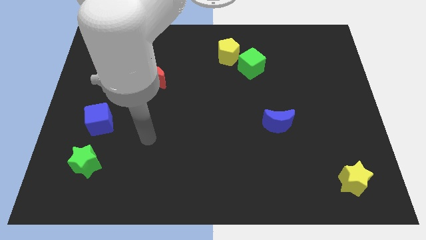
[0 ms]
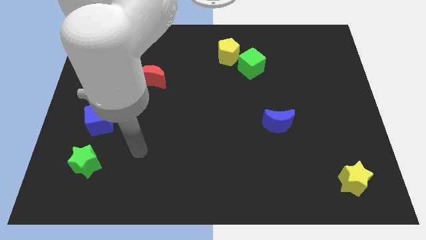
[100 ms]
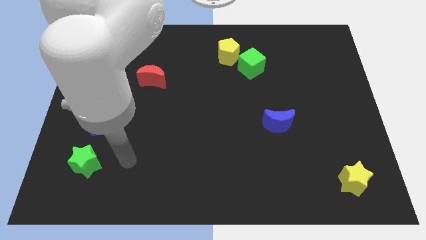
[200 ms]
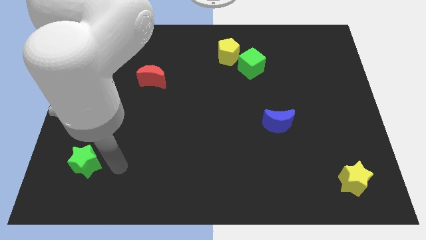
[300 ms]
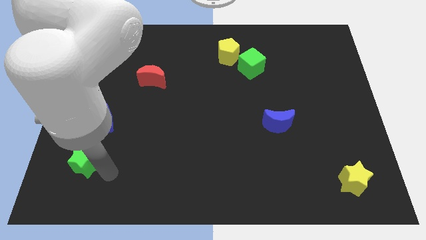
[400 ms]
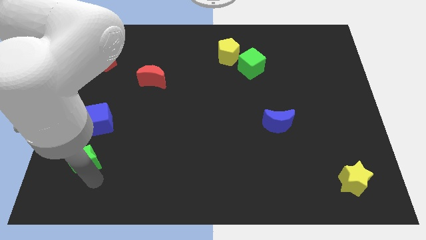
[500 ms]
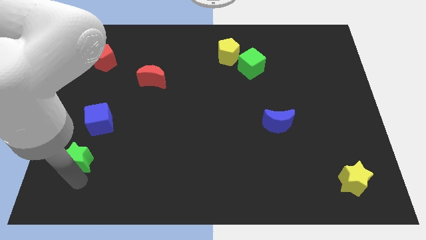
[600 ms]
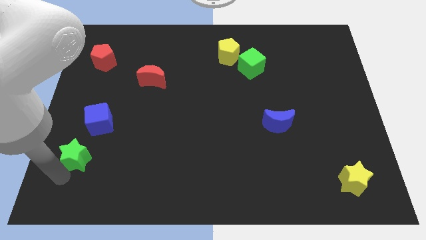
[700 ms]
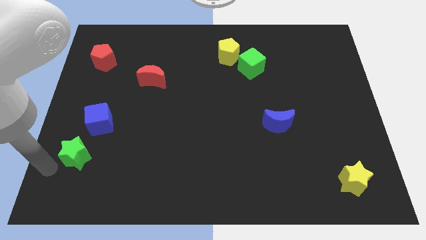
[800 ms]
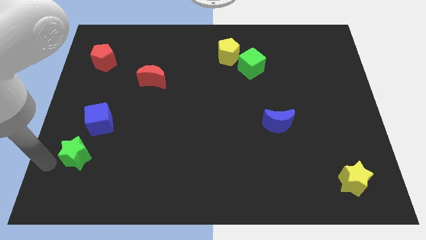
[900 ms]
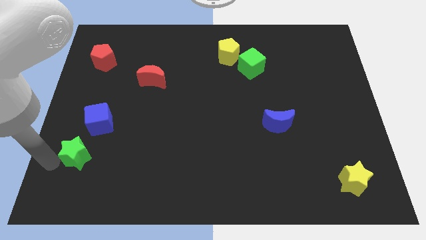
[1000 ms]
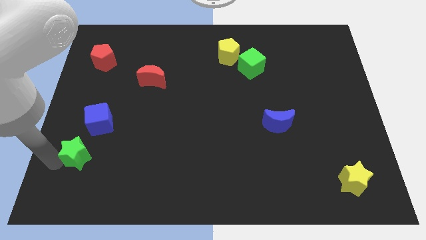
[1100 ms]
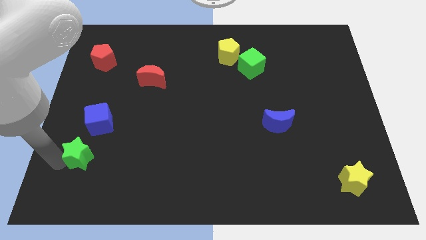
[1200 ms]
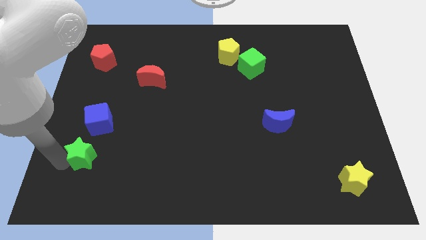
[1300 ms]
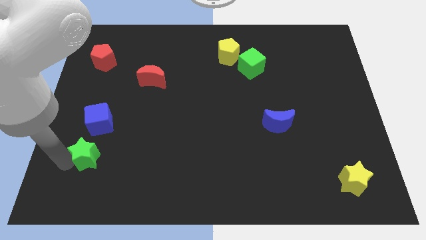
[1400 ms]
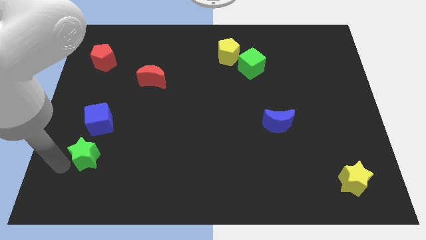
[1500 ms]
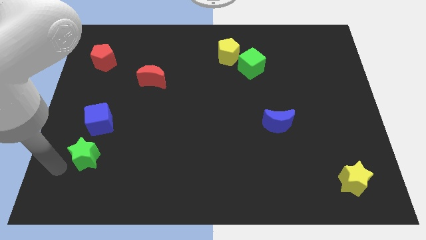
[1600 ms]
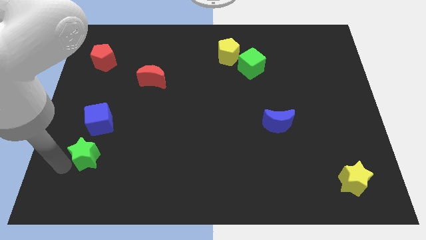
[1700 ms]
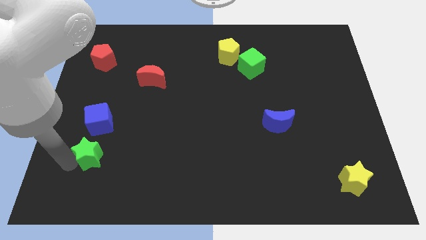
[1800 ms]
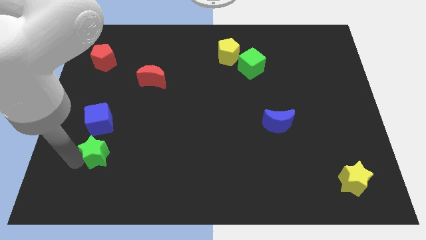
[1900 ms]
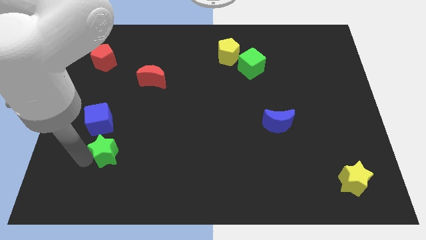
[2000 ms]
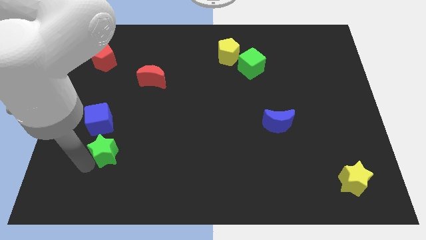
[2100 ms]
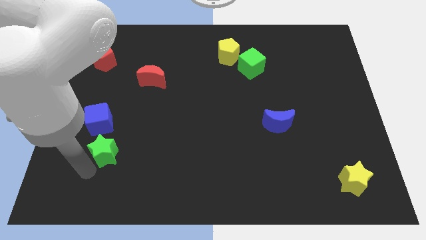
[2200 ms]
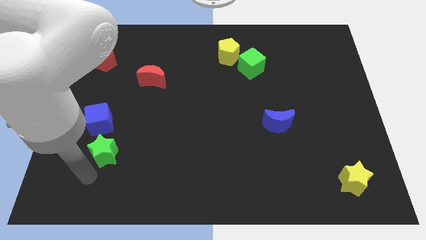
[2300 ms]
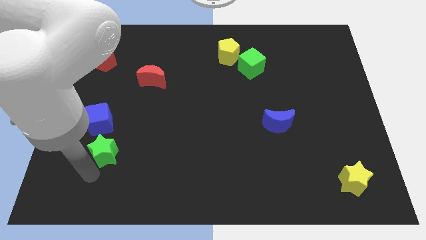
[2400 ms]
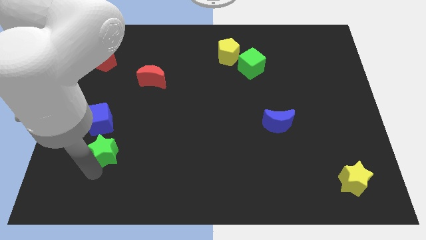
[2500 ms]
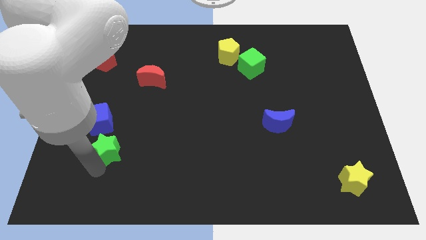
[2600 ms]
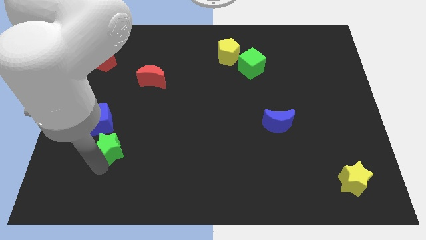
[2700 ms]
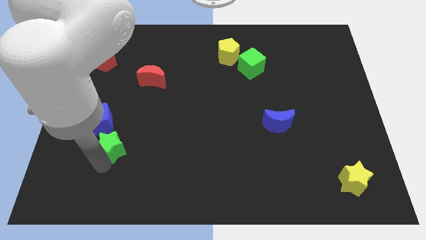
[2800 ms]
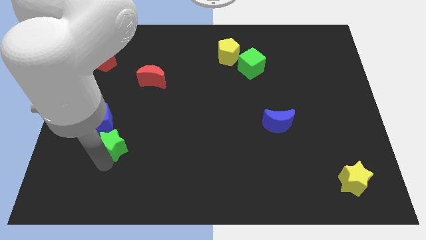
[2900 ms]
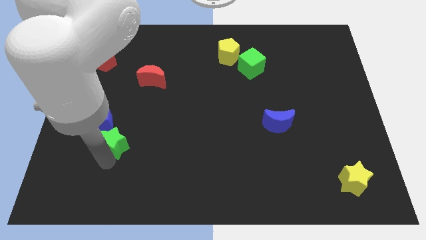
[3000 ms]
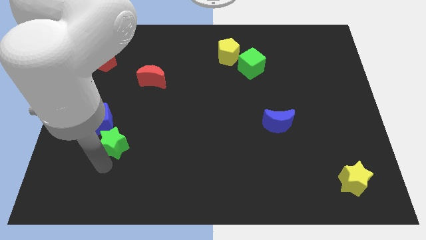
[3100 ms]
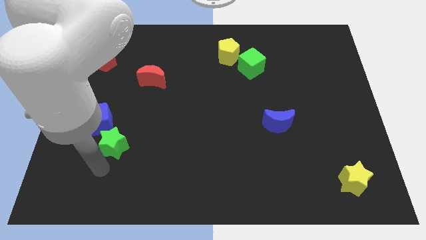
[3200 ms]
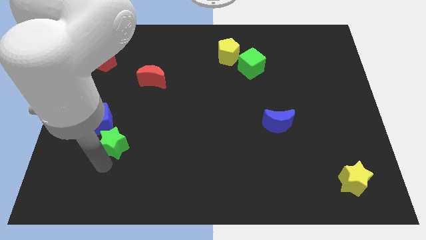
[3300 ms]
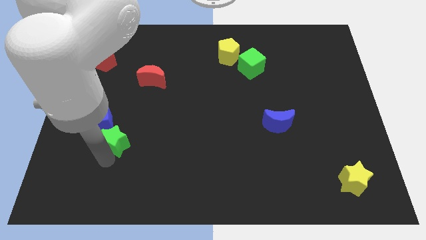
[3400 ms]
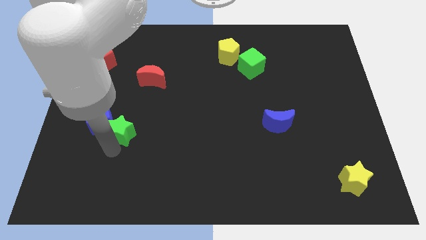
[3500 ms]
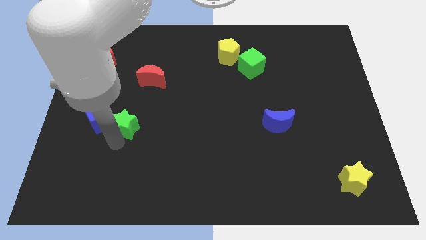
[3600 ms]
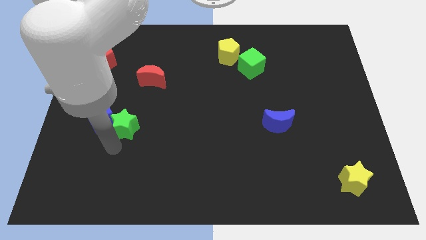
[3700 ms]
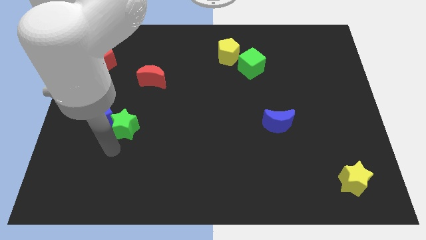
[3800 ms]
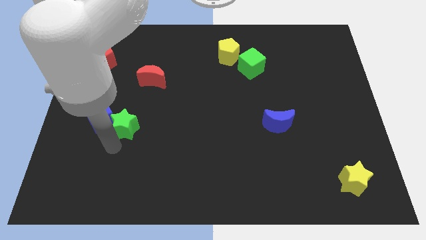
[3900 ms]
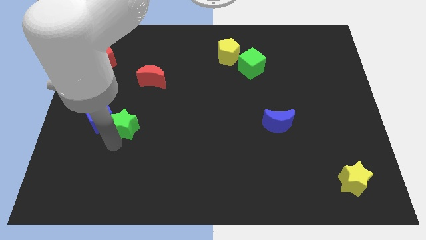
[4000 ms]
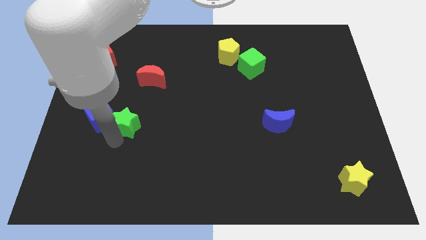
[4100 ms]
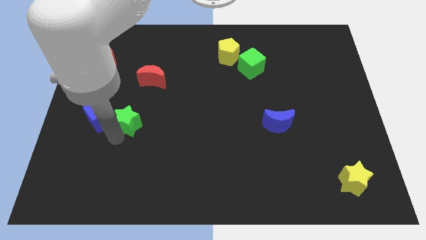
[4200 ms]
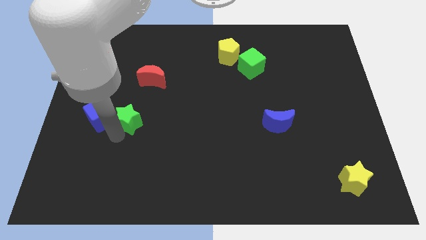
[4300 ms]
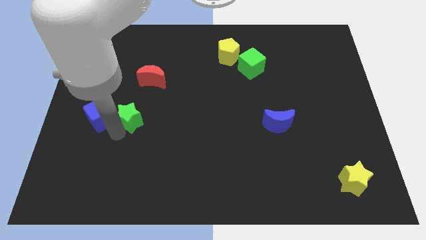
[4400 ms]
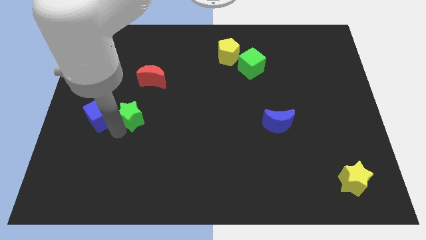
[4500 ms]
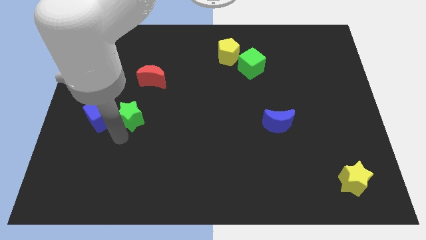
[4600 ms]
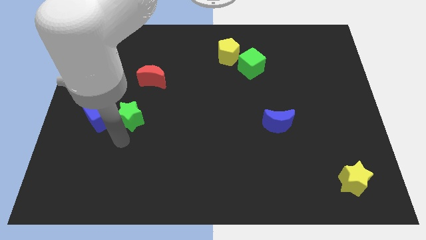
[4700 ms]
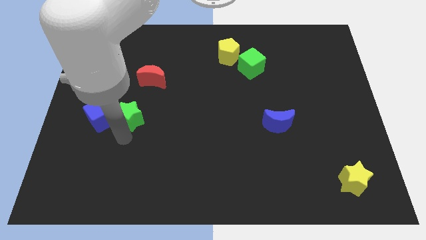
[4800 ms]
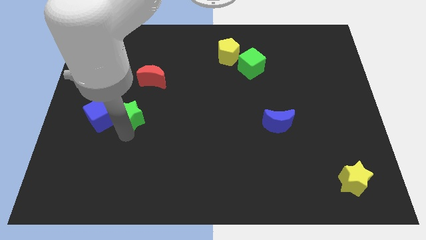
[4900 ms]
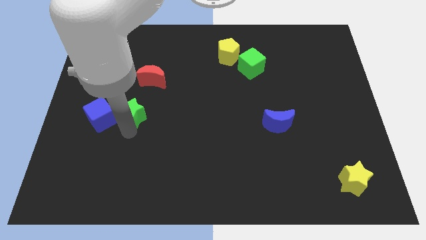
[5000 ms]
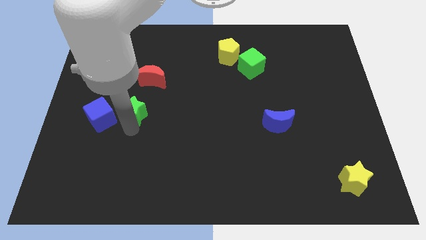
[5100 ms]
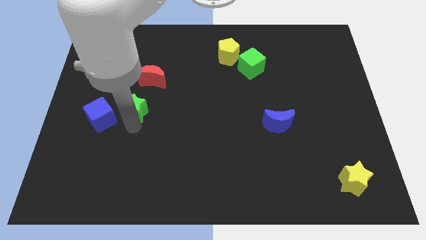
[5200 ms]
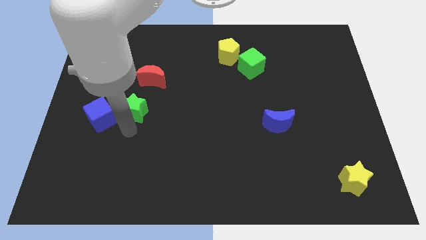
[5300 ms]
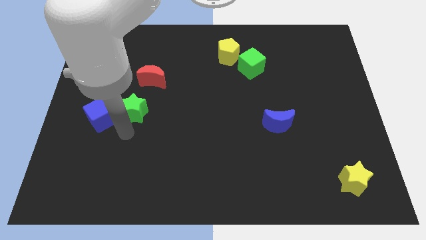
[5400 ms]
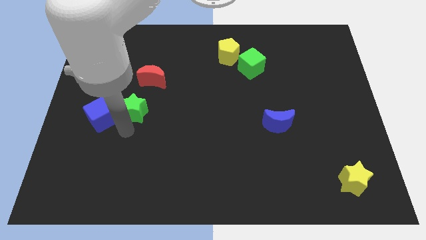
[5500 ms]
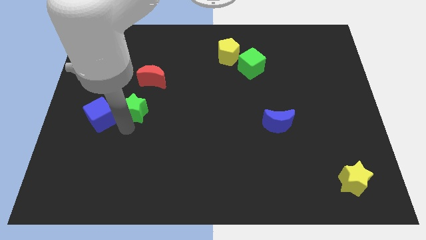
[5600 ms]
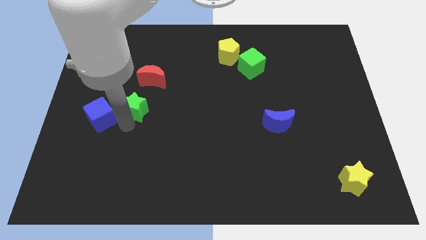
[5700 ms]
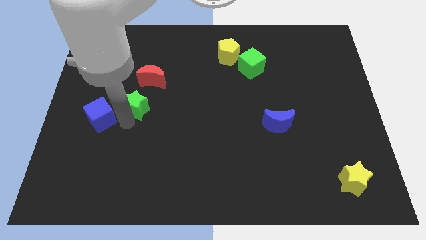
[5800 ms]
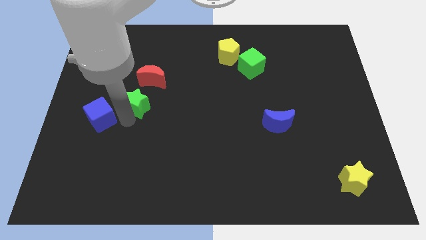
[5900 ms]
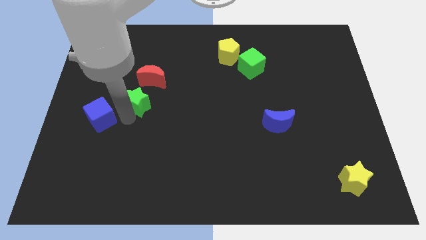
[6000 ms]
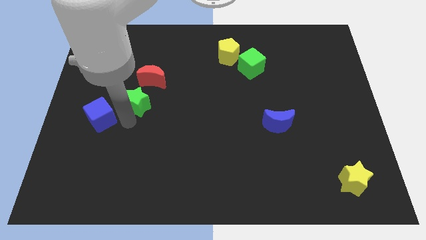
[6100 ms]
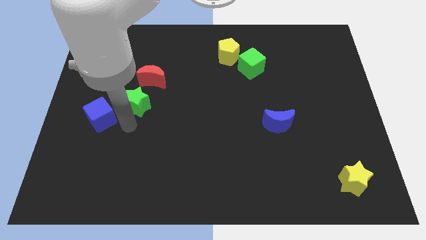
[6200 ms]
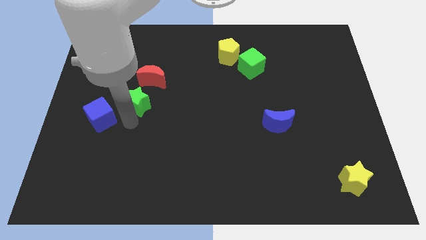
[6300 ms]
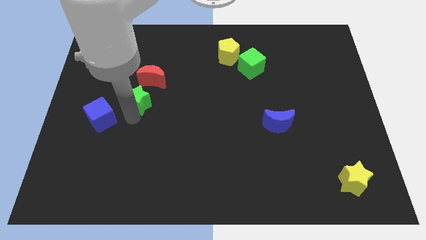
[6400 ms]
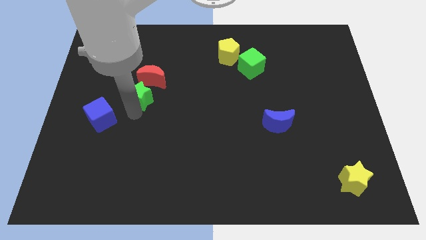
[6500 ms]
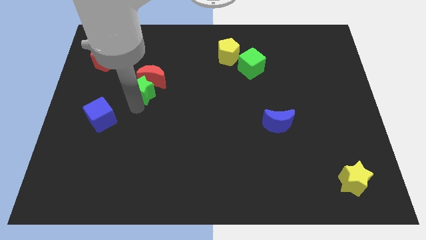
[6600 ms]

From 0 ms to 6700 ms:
push the green star close to the red moon

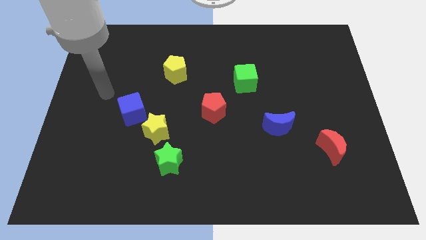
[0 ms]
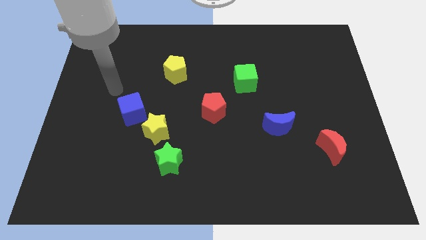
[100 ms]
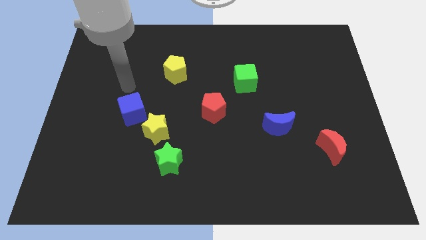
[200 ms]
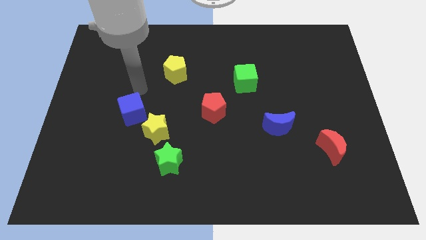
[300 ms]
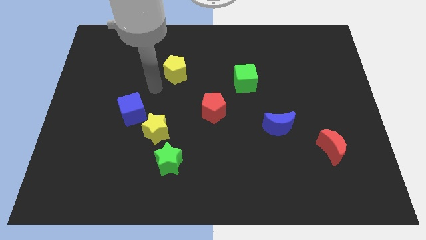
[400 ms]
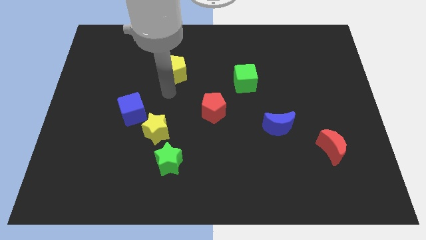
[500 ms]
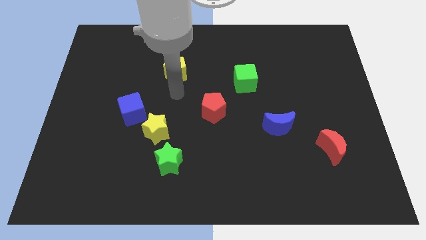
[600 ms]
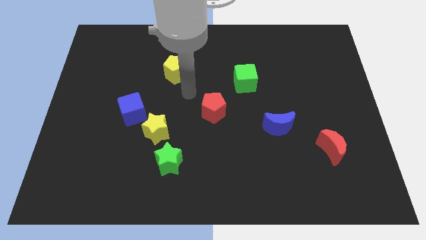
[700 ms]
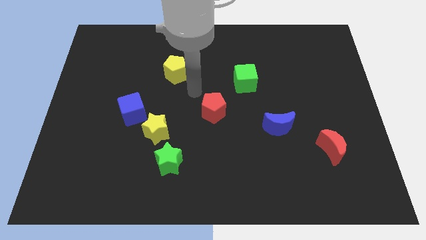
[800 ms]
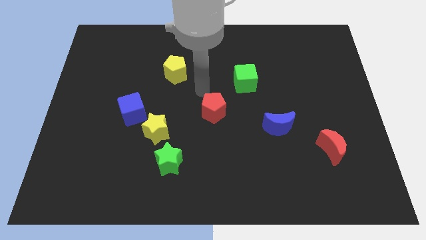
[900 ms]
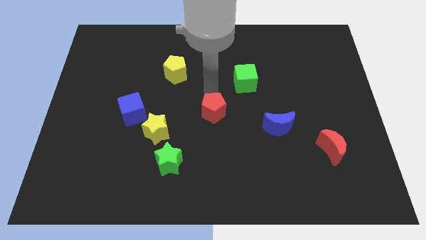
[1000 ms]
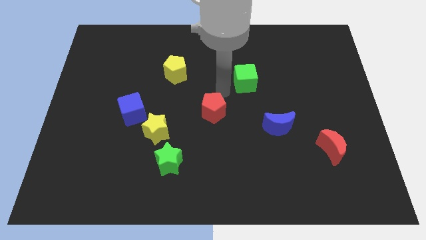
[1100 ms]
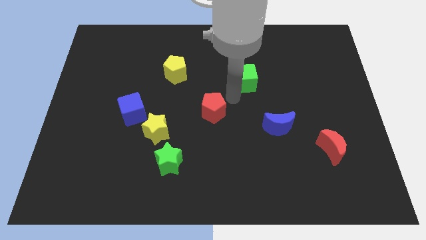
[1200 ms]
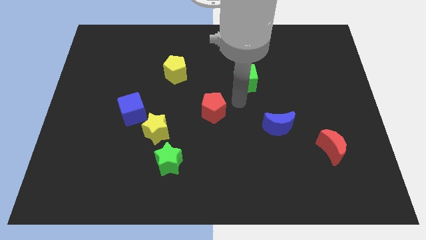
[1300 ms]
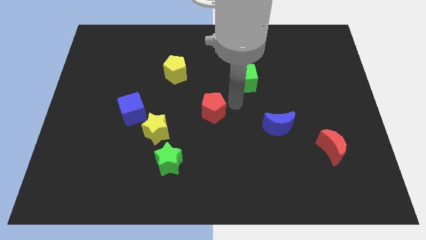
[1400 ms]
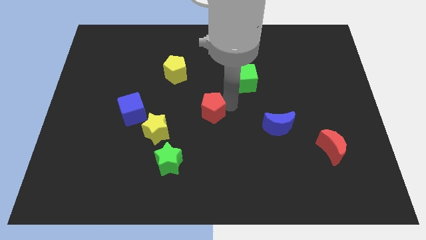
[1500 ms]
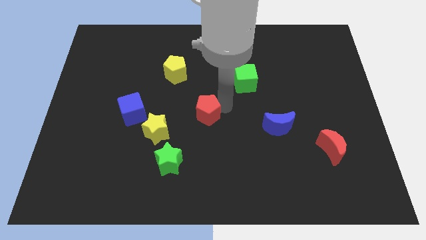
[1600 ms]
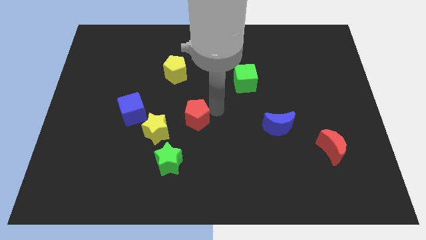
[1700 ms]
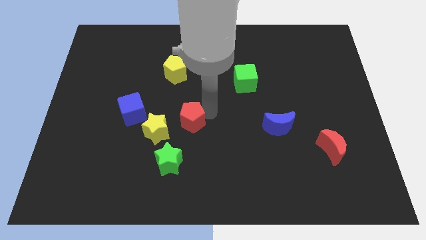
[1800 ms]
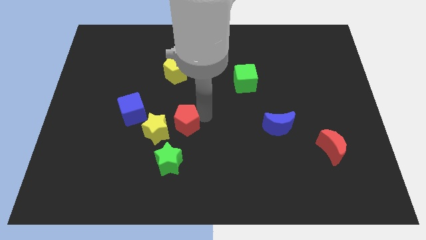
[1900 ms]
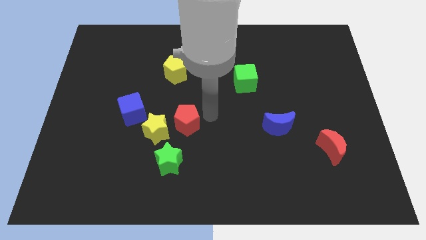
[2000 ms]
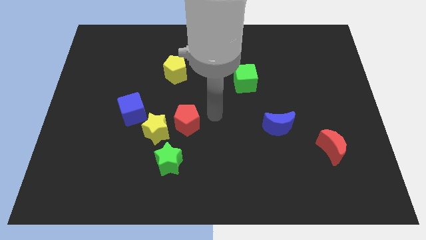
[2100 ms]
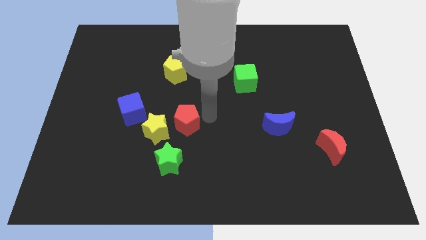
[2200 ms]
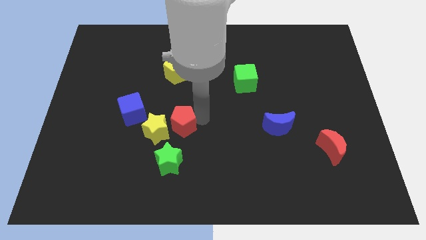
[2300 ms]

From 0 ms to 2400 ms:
push the red pentagon towards the yellow star
